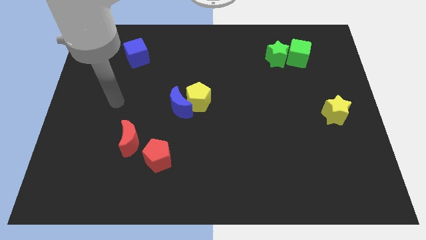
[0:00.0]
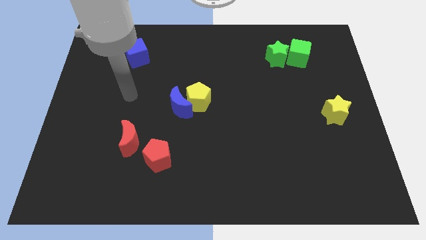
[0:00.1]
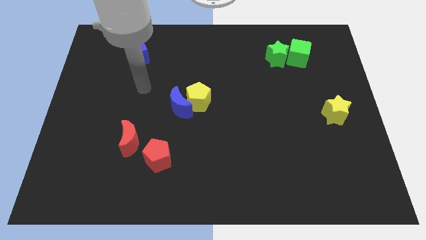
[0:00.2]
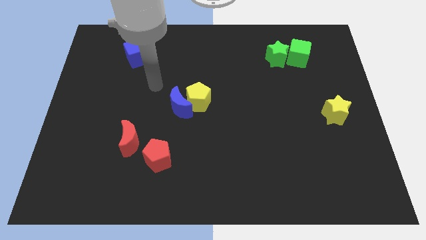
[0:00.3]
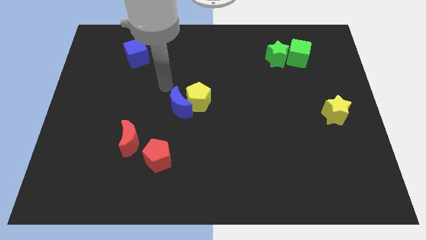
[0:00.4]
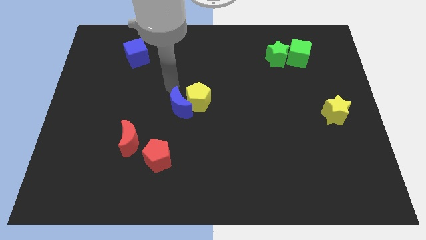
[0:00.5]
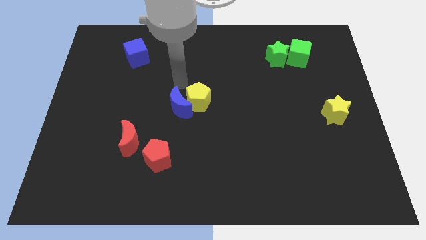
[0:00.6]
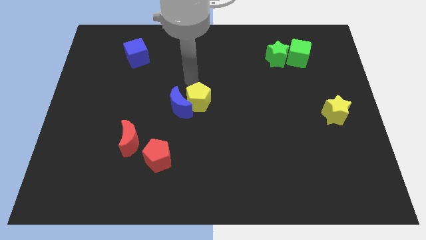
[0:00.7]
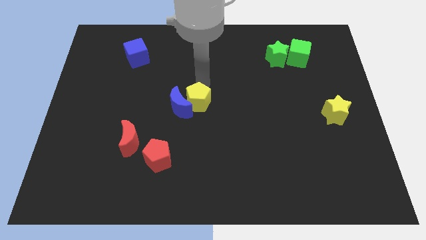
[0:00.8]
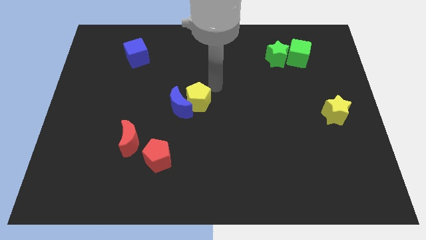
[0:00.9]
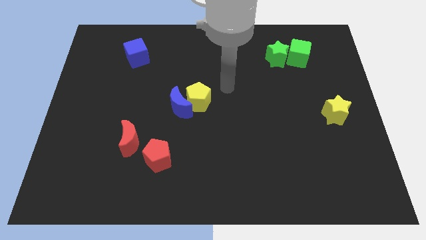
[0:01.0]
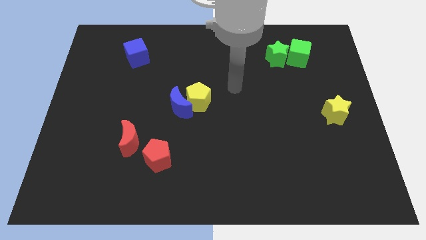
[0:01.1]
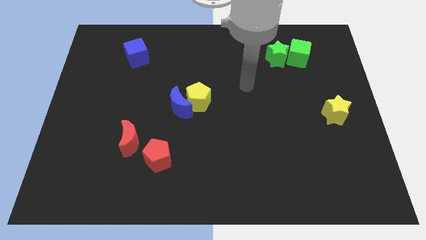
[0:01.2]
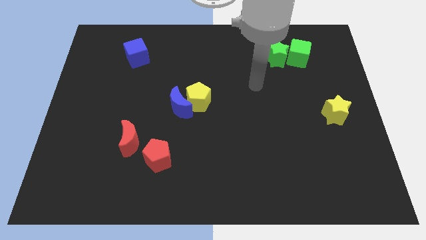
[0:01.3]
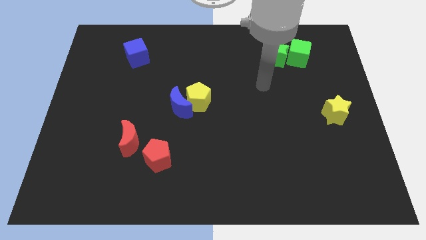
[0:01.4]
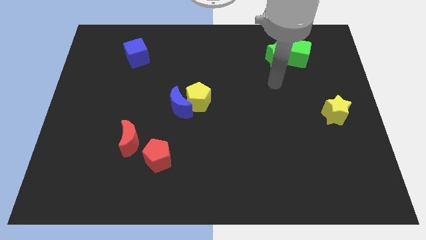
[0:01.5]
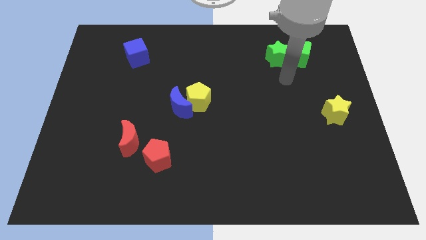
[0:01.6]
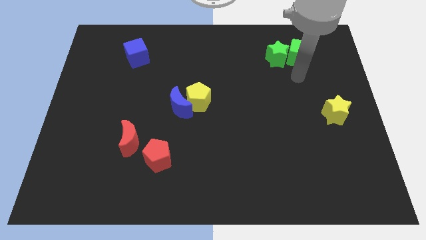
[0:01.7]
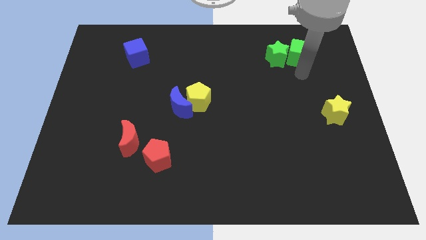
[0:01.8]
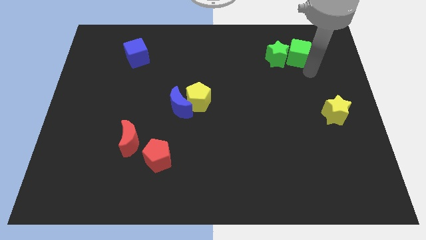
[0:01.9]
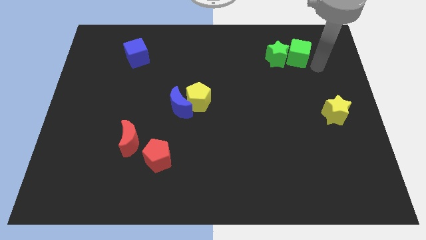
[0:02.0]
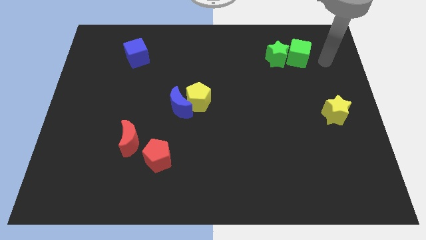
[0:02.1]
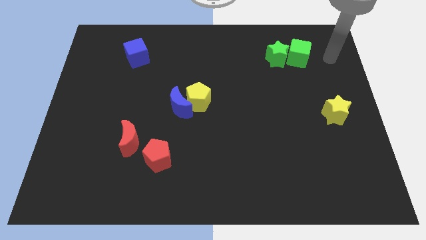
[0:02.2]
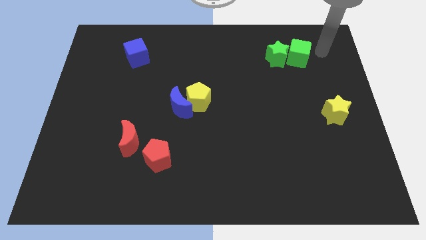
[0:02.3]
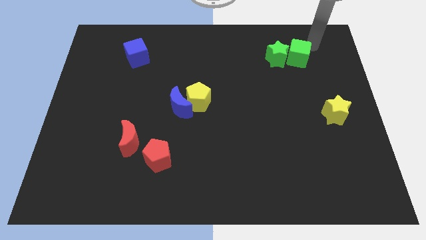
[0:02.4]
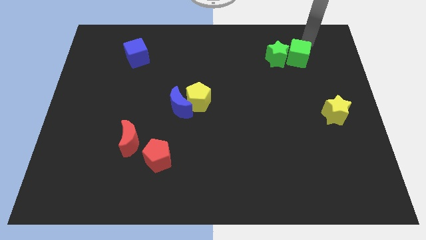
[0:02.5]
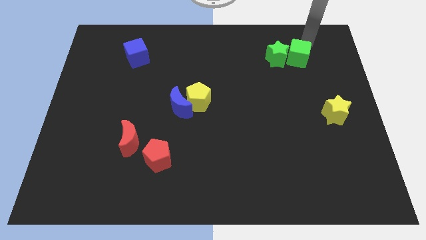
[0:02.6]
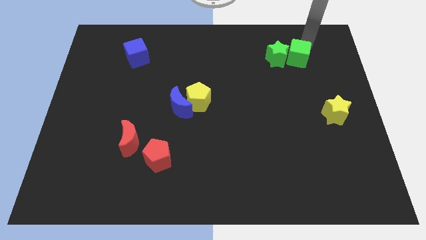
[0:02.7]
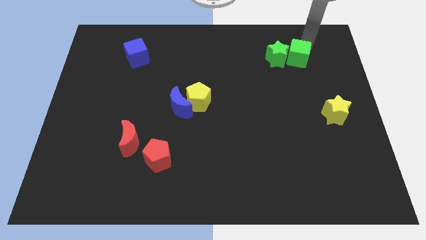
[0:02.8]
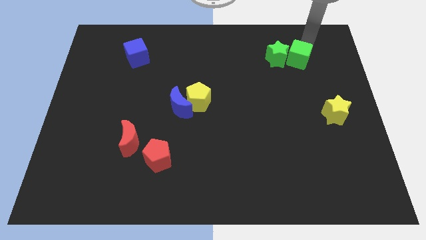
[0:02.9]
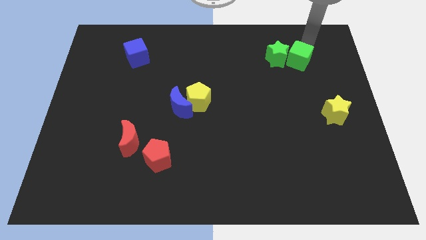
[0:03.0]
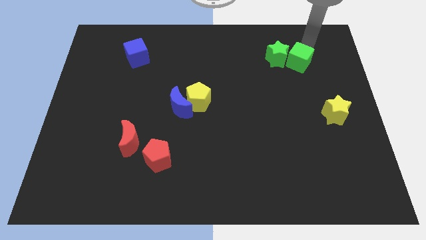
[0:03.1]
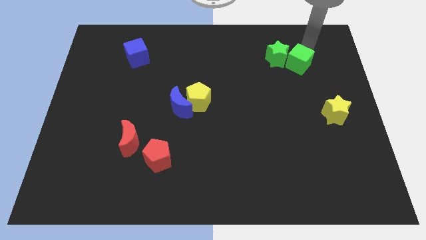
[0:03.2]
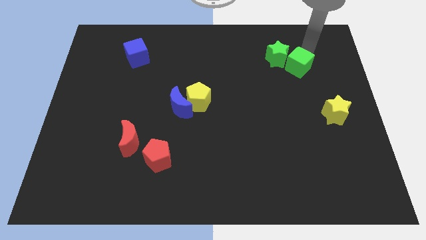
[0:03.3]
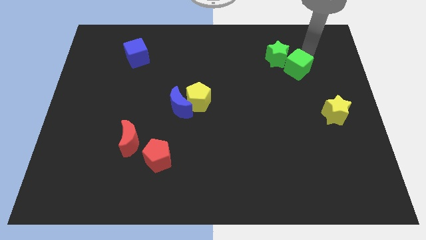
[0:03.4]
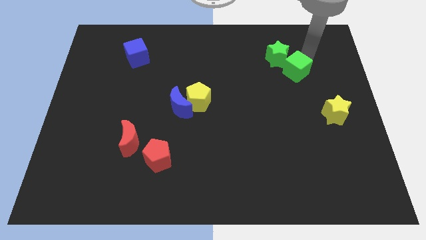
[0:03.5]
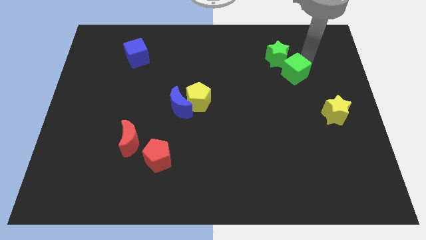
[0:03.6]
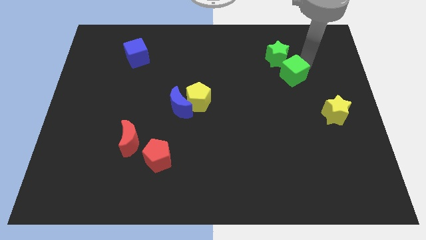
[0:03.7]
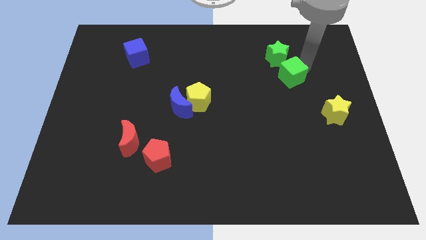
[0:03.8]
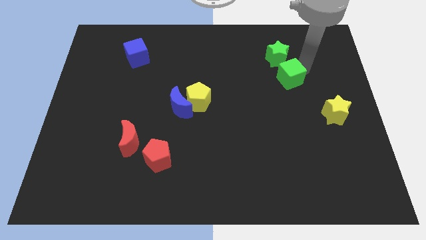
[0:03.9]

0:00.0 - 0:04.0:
slightly push the green cube downwards and then left

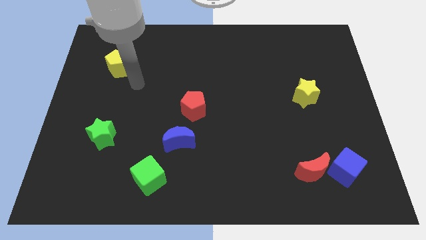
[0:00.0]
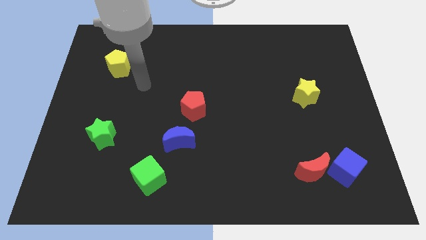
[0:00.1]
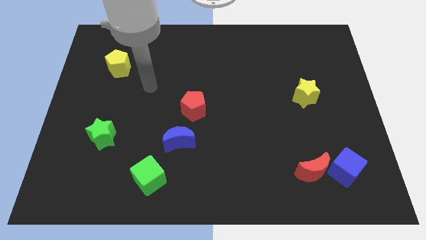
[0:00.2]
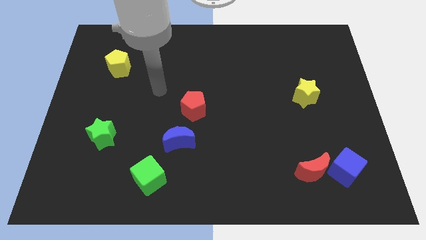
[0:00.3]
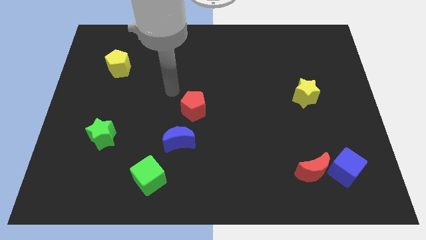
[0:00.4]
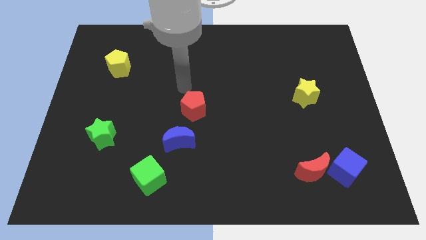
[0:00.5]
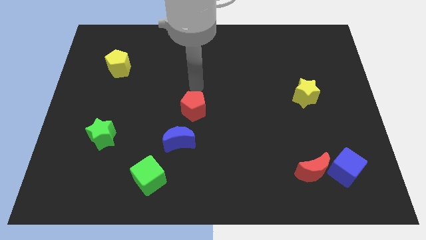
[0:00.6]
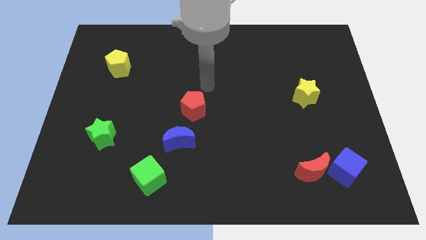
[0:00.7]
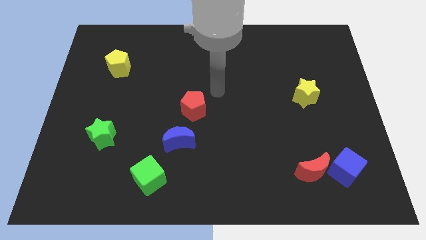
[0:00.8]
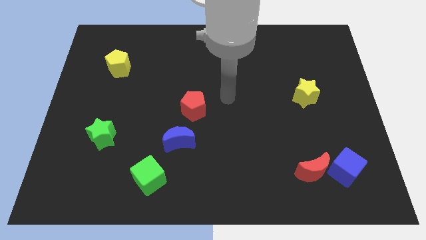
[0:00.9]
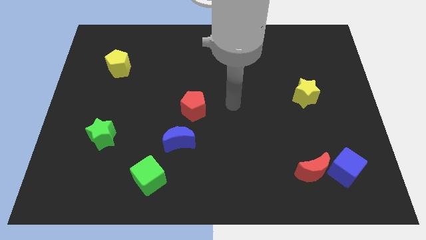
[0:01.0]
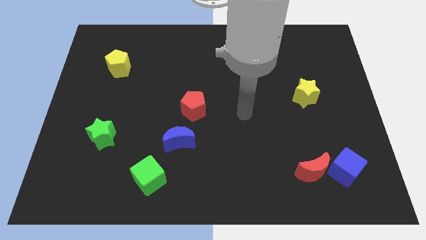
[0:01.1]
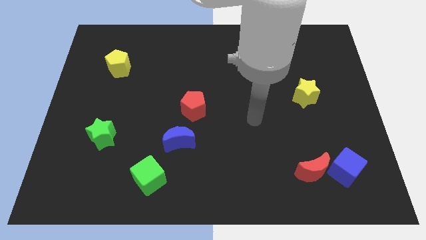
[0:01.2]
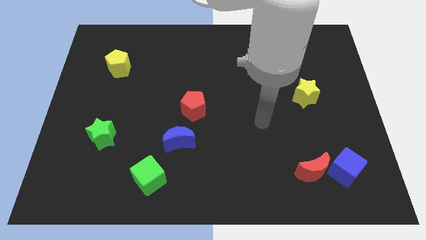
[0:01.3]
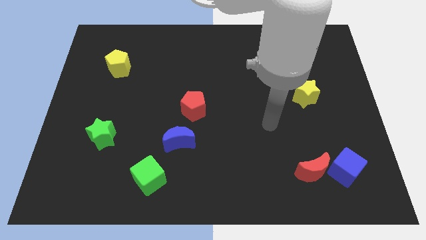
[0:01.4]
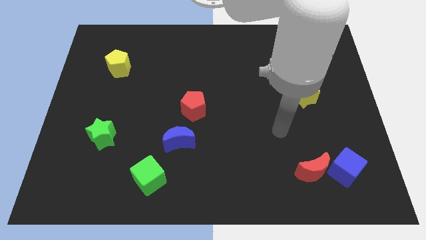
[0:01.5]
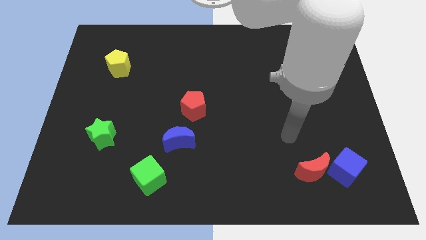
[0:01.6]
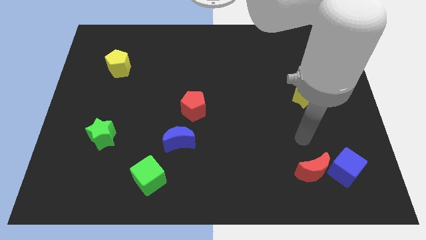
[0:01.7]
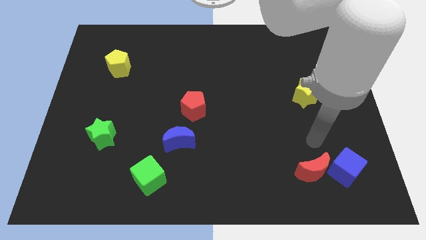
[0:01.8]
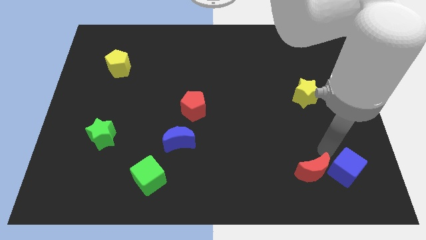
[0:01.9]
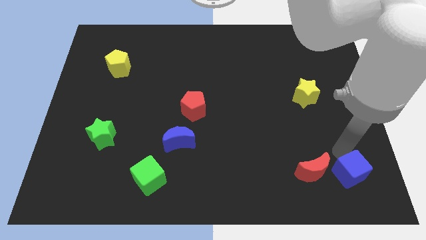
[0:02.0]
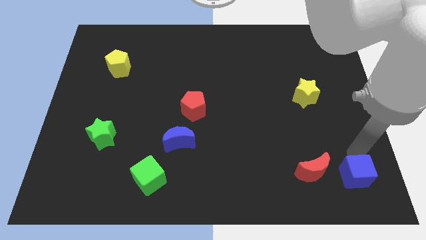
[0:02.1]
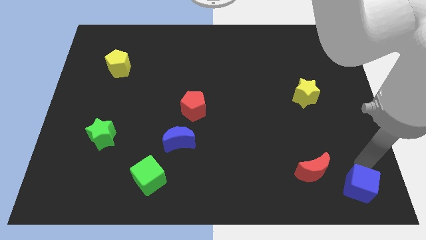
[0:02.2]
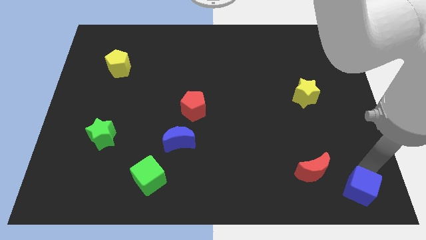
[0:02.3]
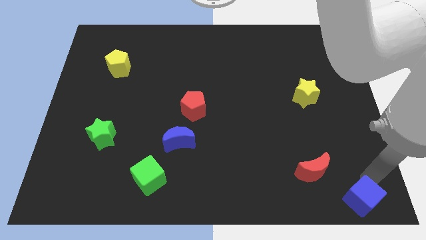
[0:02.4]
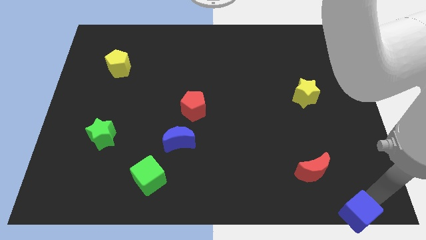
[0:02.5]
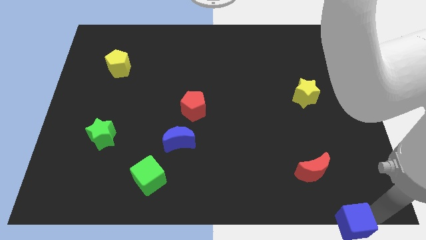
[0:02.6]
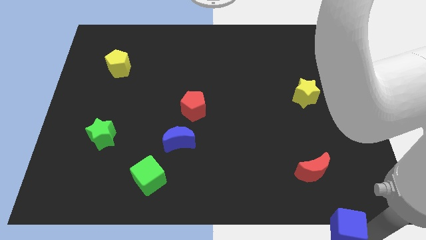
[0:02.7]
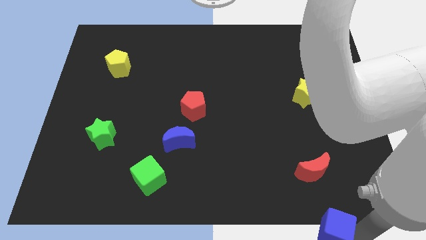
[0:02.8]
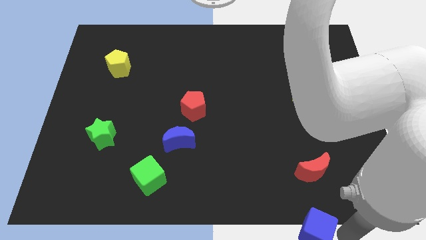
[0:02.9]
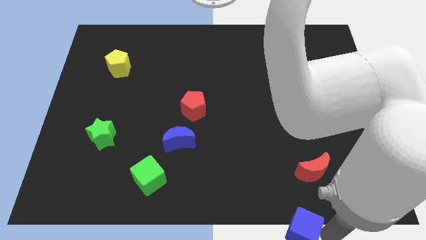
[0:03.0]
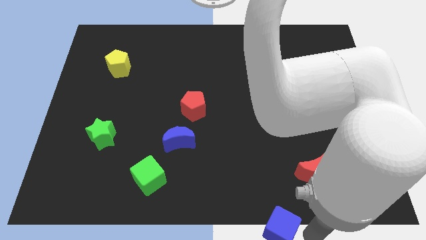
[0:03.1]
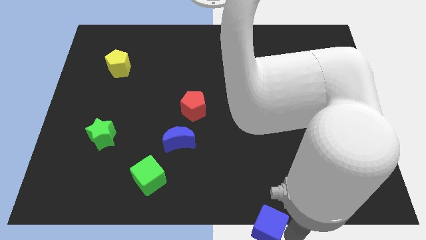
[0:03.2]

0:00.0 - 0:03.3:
slightly slide the blue cube left

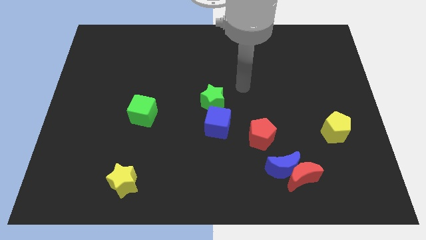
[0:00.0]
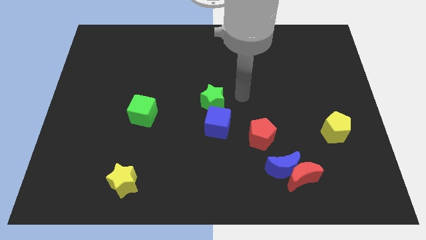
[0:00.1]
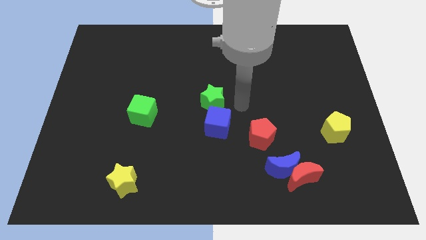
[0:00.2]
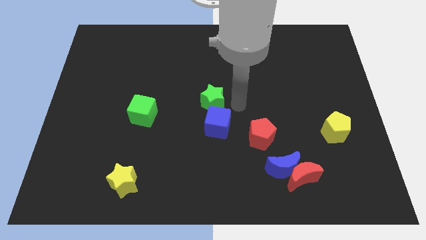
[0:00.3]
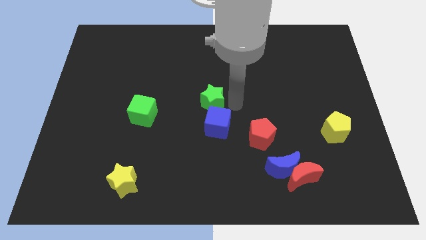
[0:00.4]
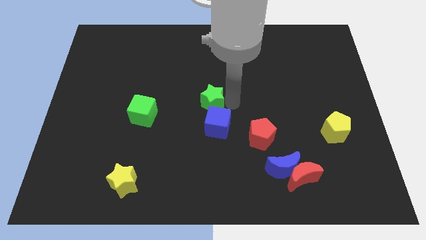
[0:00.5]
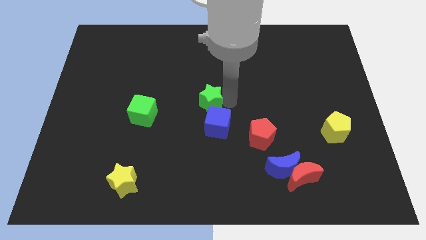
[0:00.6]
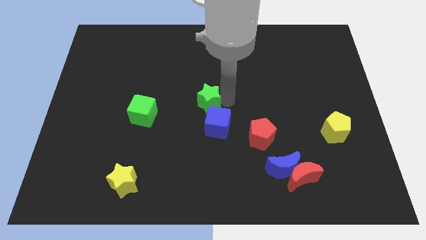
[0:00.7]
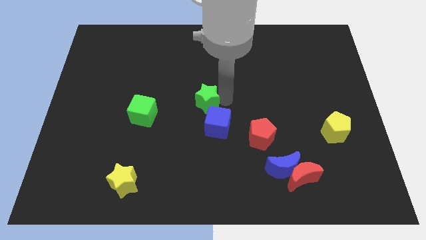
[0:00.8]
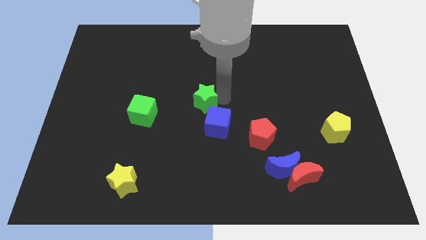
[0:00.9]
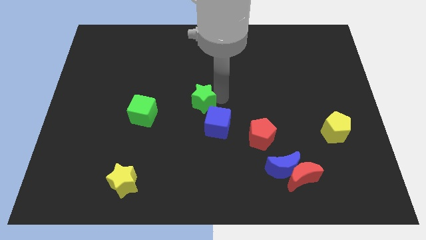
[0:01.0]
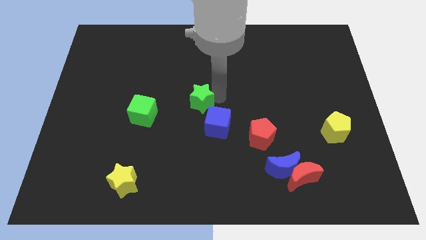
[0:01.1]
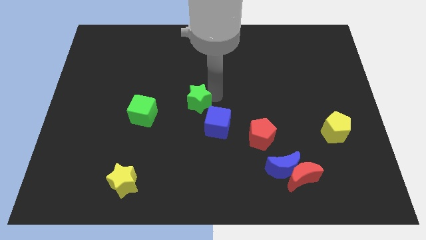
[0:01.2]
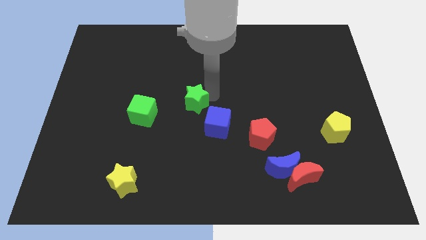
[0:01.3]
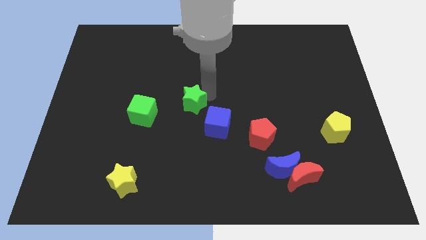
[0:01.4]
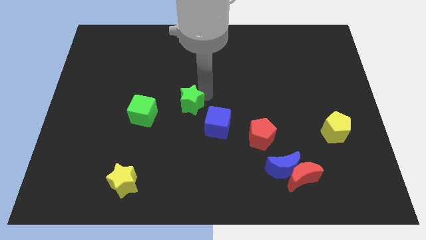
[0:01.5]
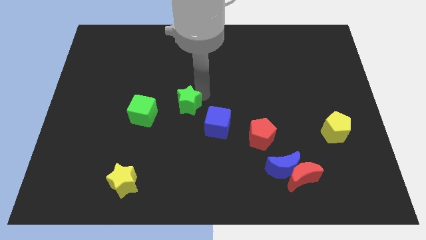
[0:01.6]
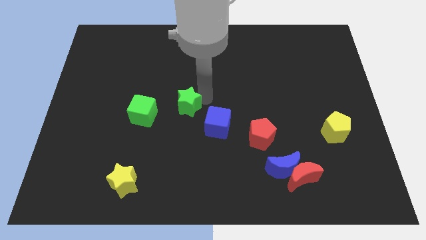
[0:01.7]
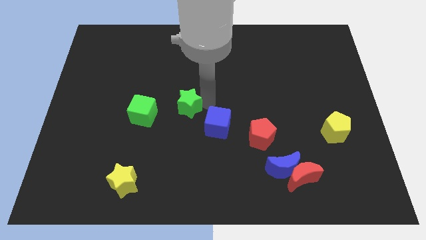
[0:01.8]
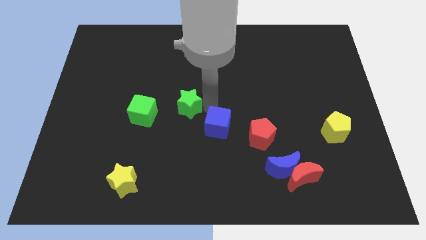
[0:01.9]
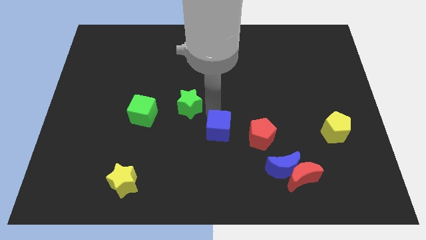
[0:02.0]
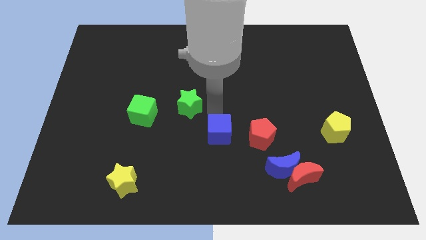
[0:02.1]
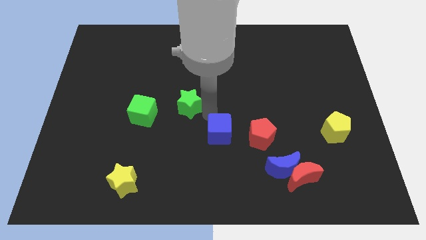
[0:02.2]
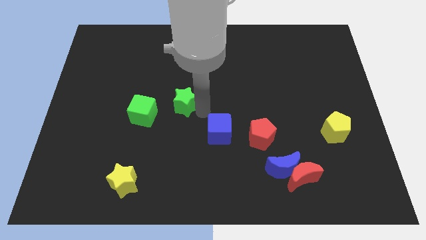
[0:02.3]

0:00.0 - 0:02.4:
move the green star somewhat to the left
